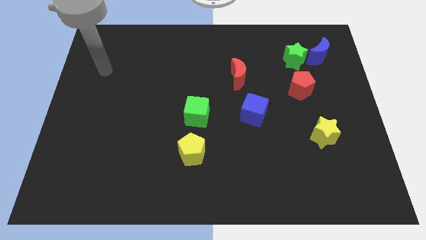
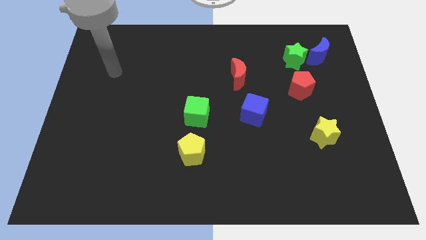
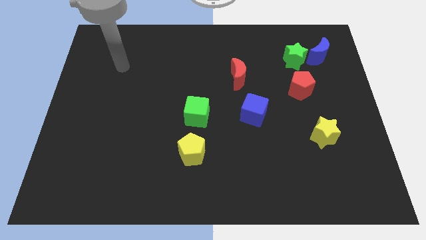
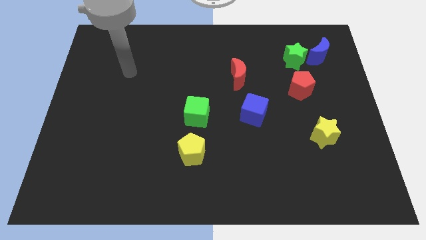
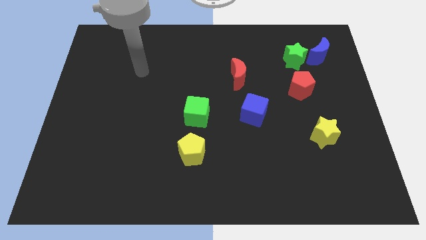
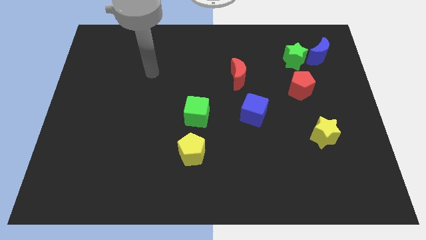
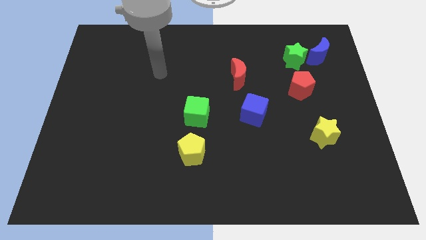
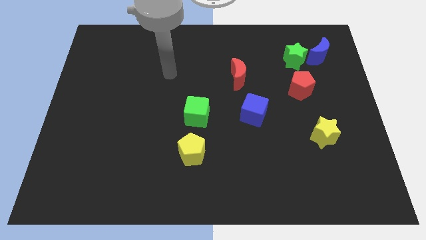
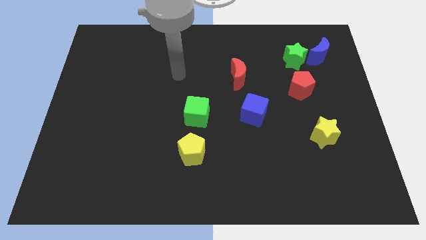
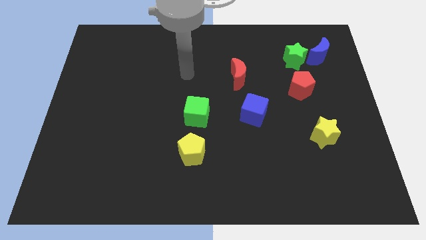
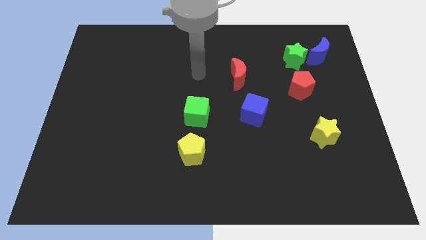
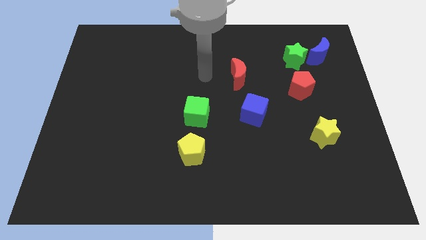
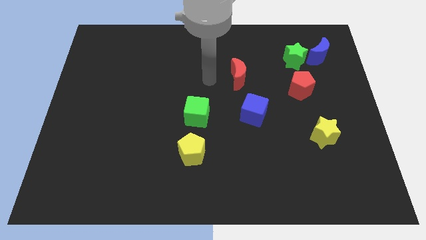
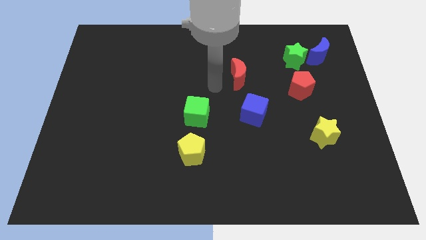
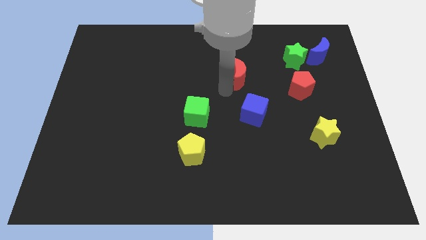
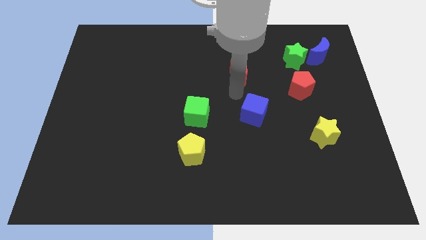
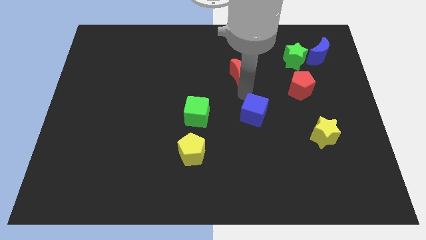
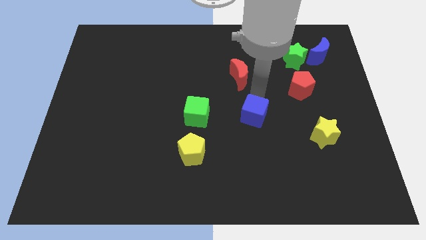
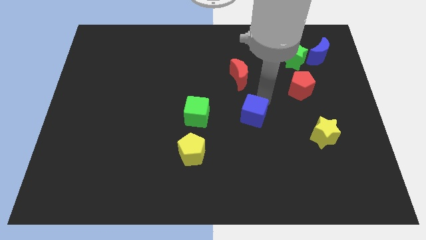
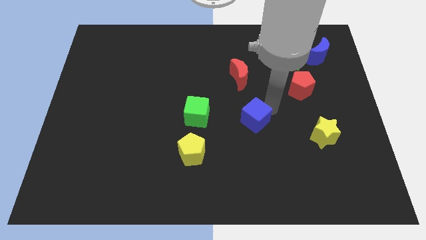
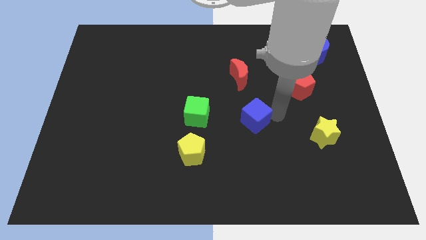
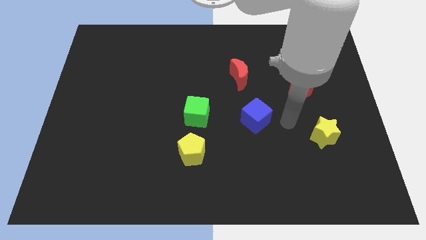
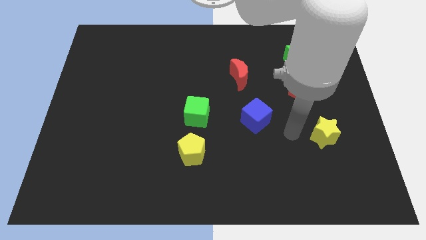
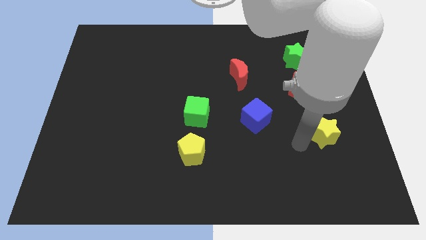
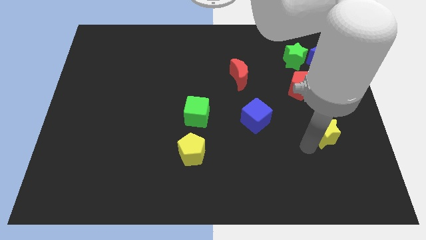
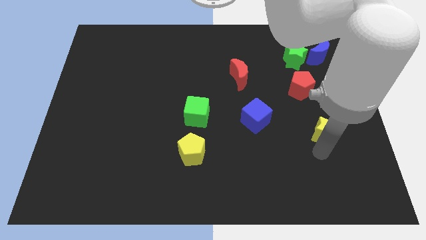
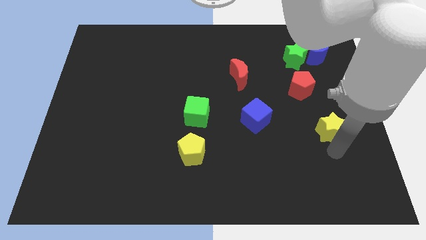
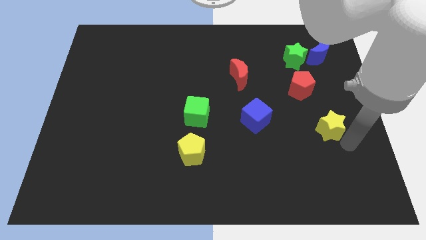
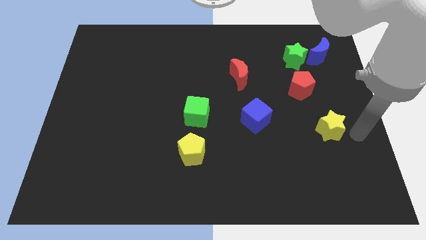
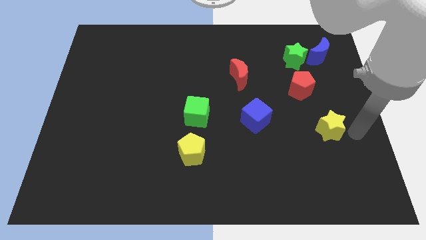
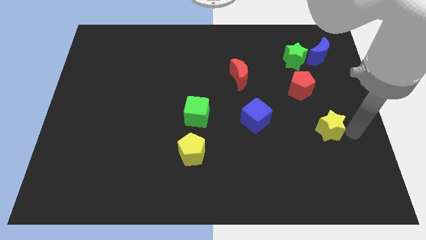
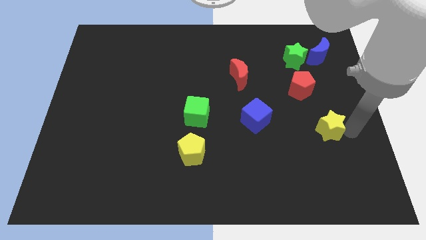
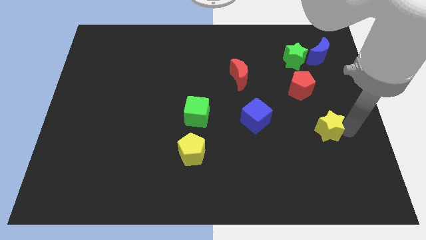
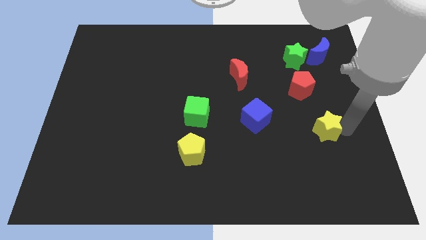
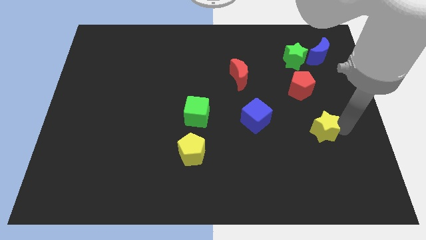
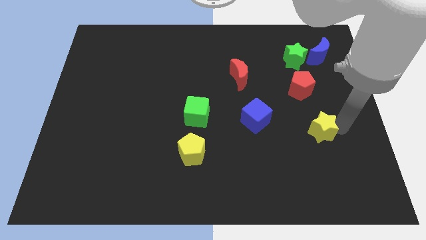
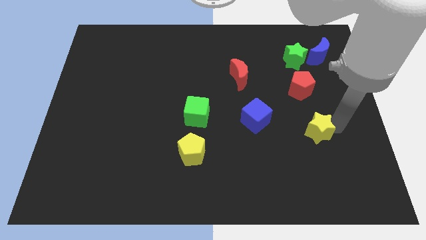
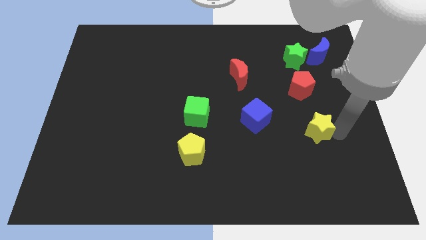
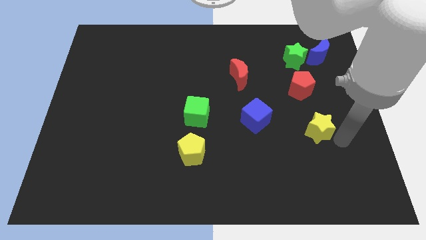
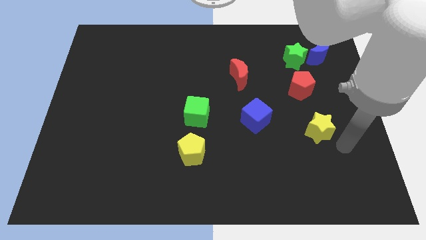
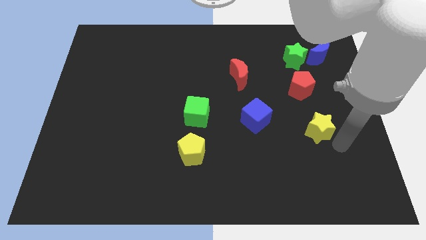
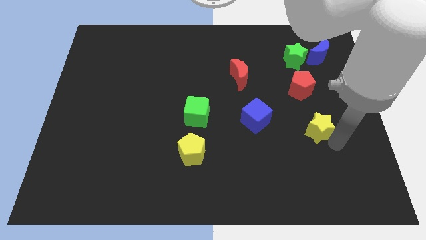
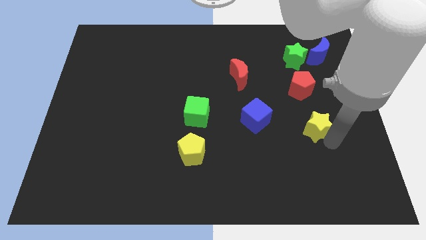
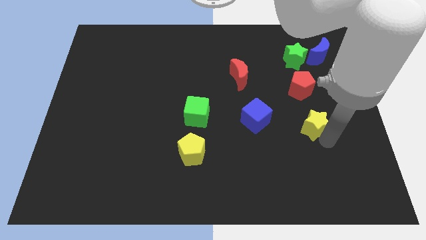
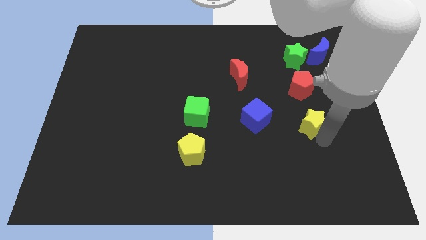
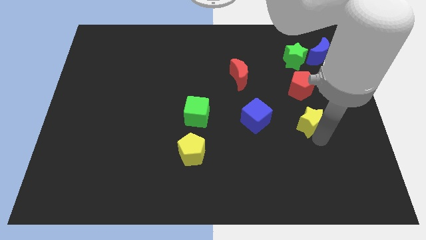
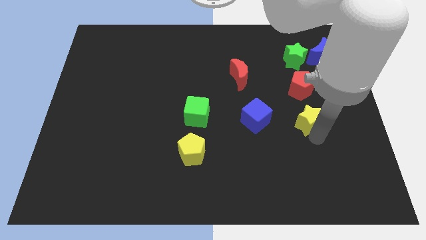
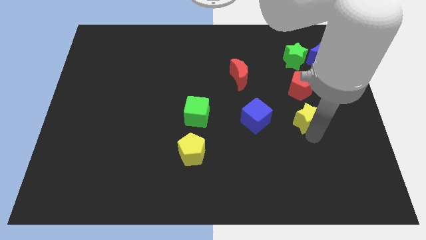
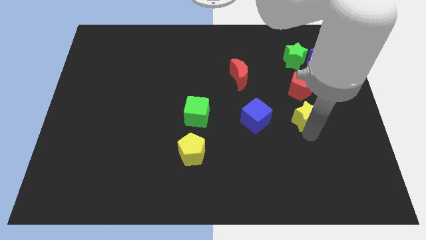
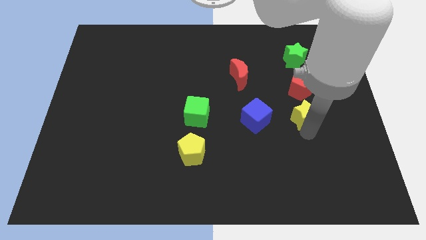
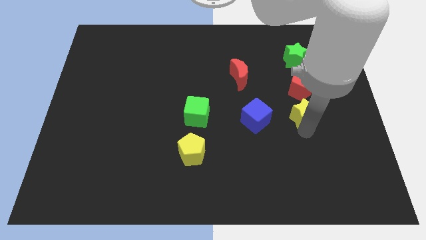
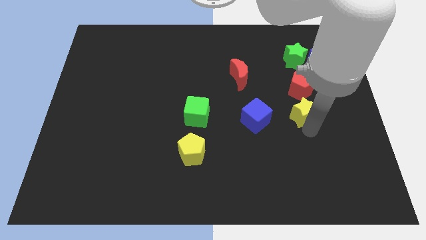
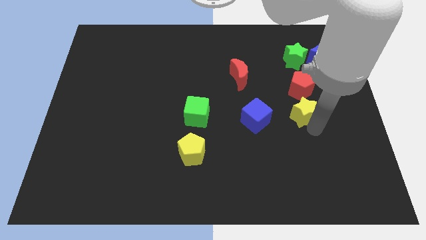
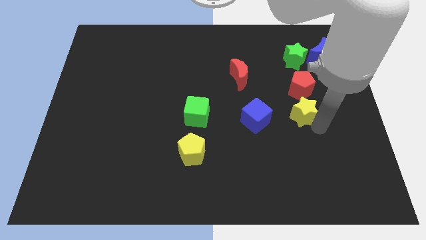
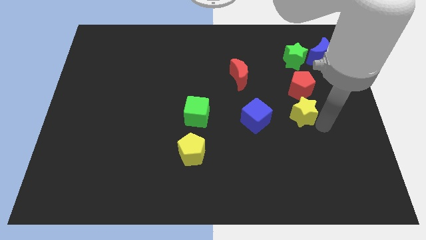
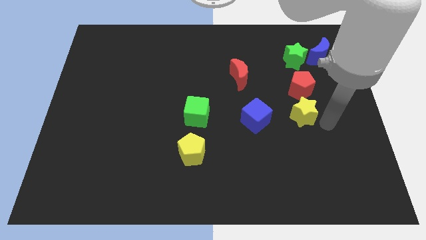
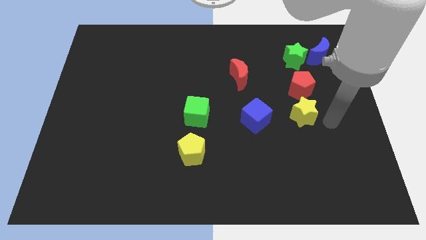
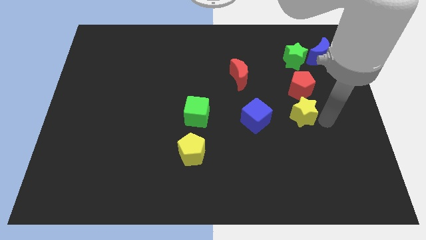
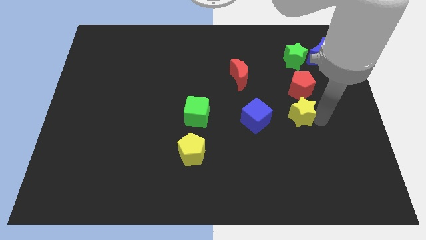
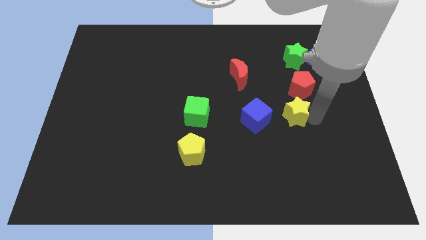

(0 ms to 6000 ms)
slide the yellow star a bit up and to the left

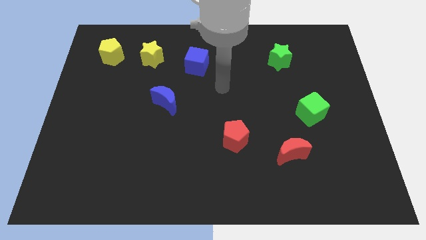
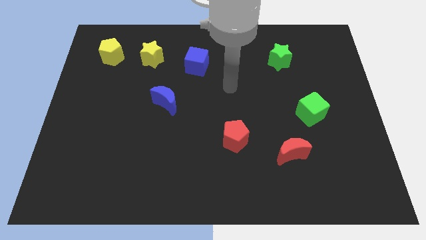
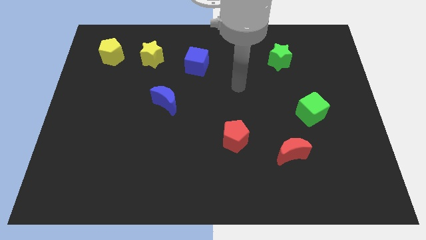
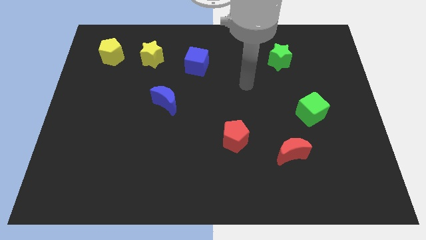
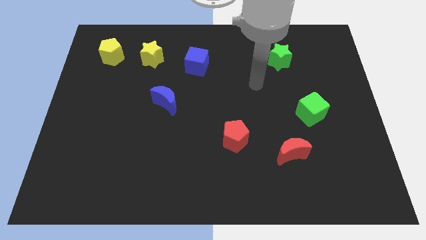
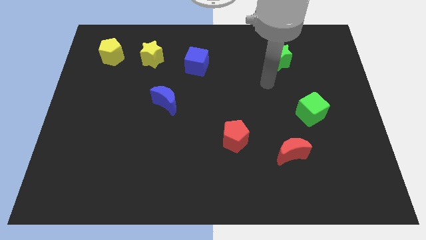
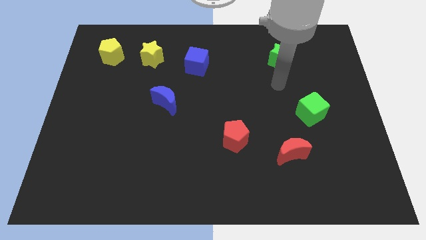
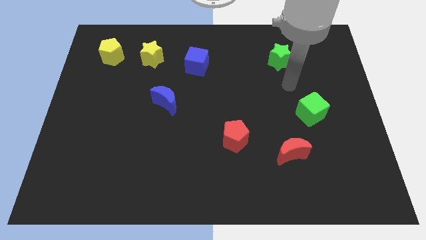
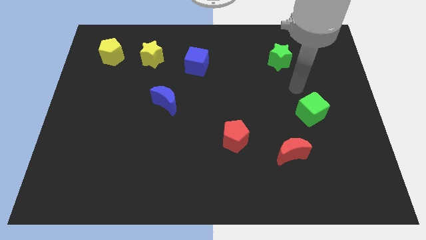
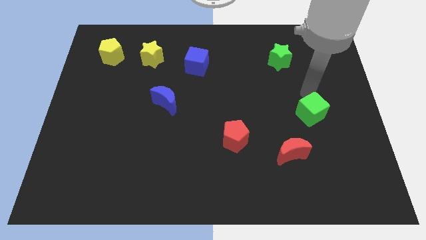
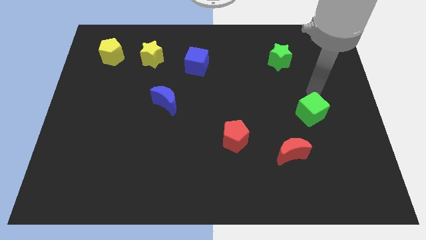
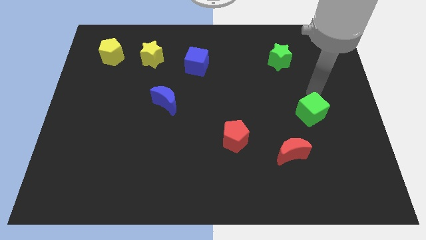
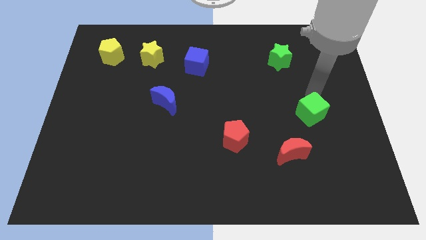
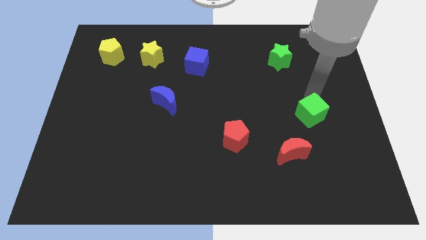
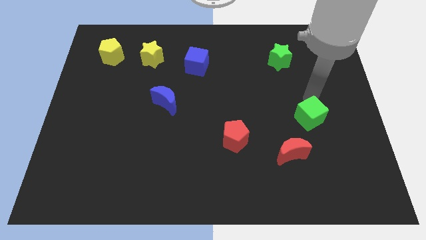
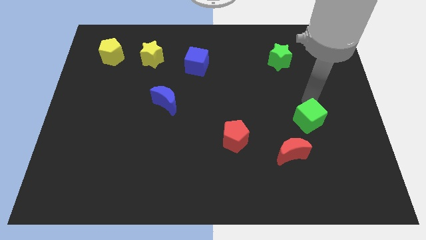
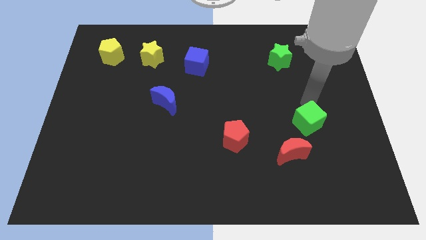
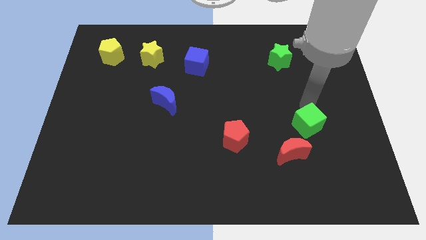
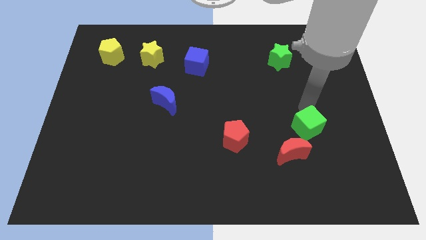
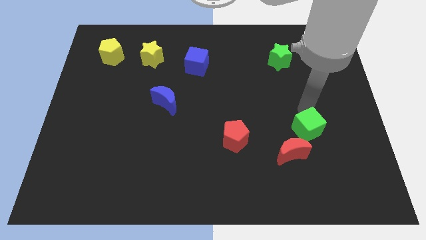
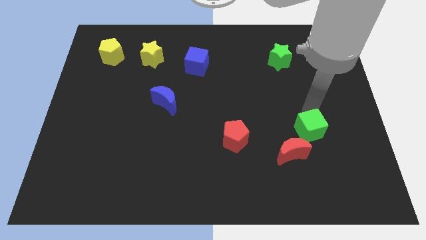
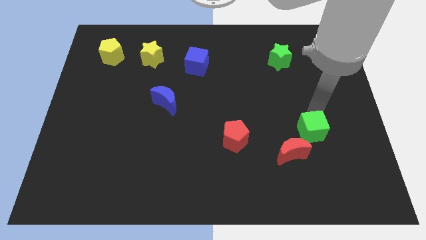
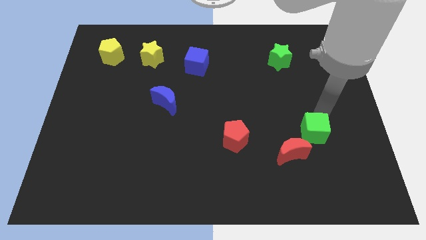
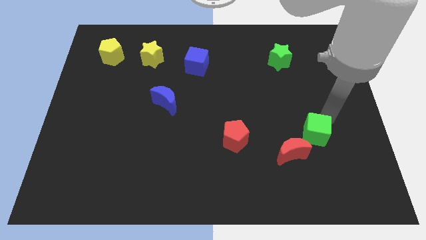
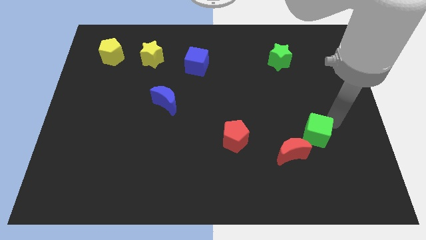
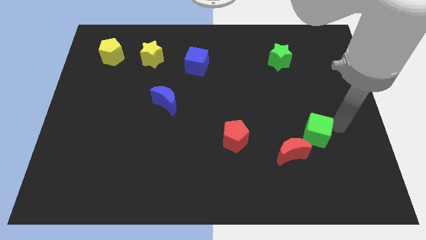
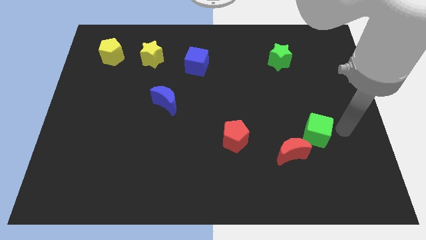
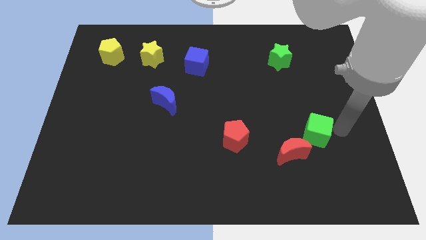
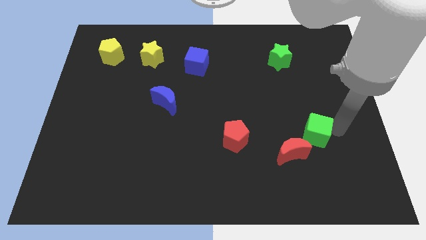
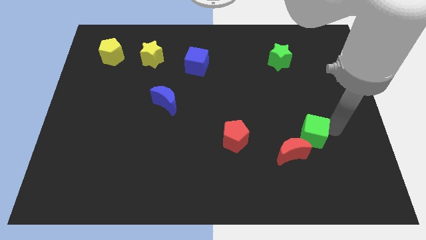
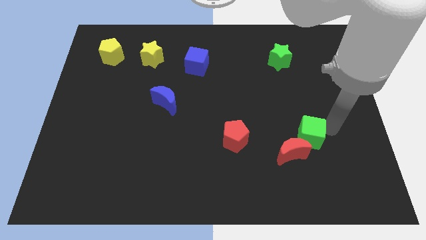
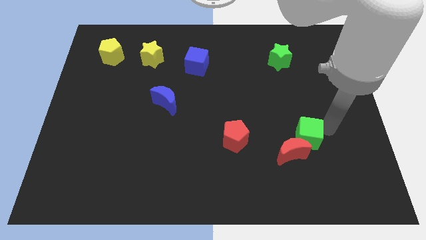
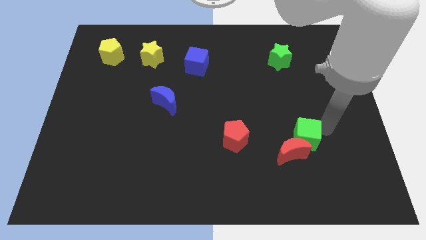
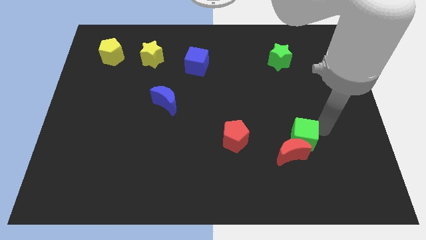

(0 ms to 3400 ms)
move the green cube down and to the left slightly
